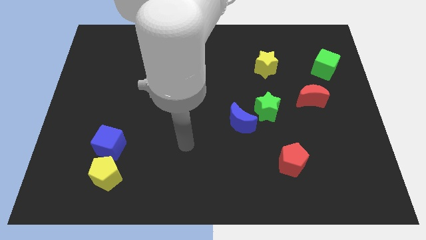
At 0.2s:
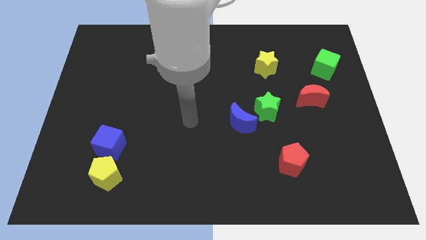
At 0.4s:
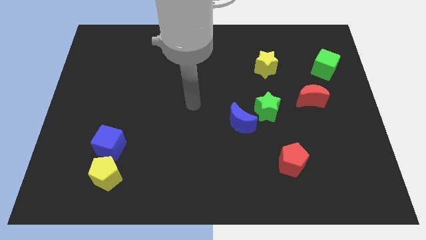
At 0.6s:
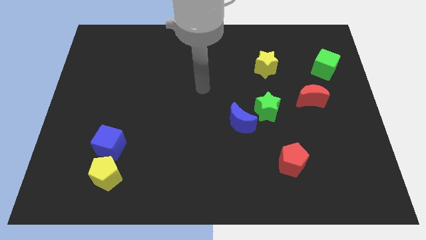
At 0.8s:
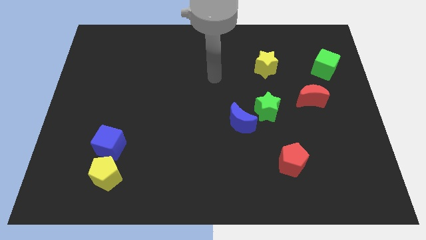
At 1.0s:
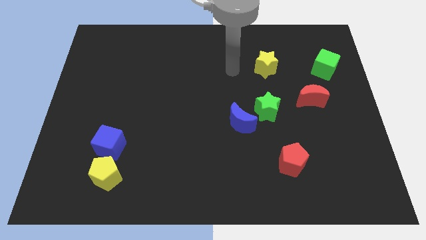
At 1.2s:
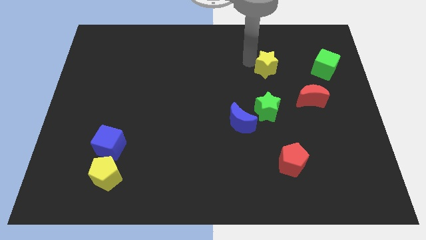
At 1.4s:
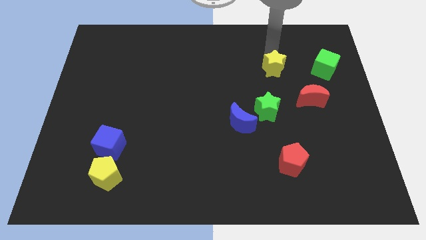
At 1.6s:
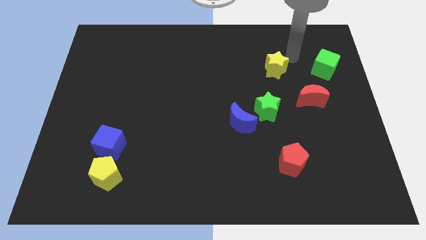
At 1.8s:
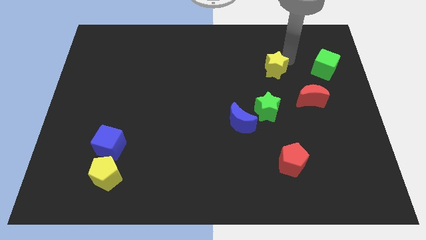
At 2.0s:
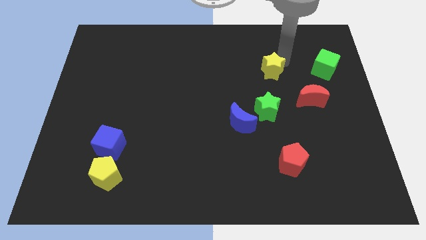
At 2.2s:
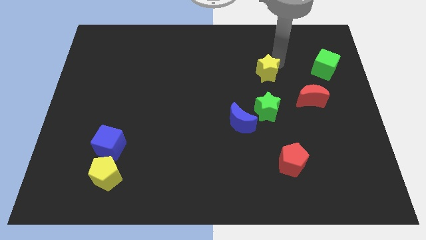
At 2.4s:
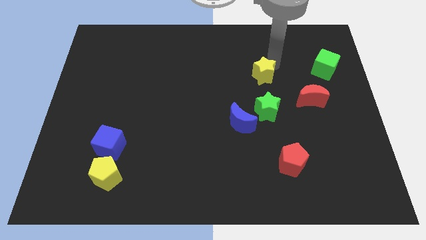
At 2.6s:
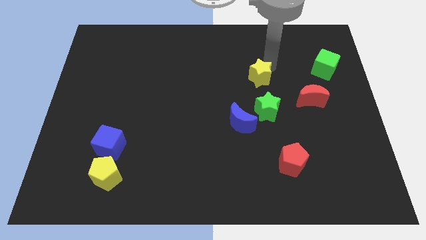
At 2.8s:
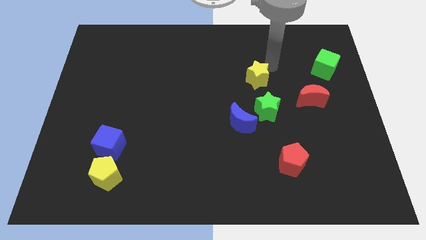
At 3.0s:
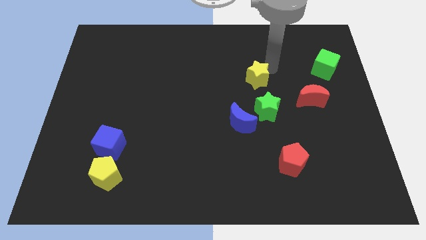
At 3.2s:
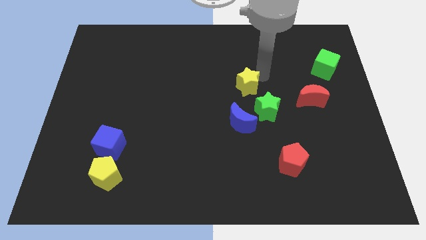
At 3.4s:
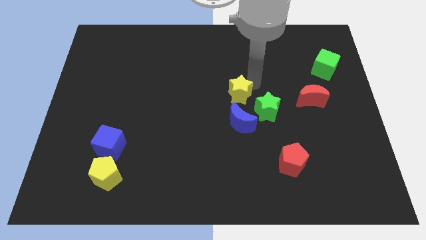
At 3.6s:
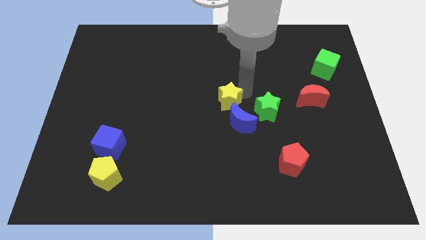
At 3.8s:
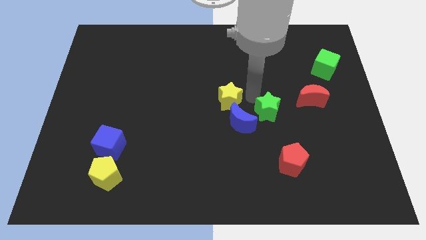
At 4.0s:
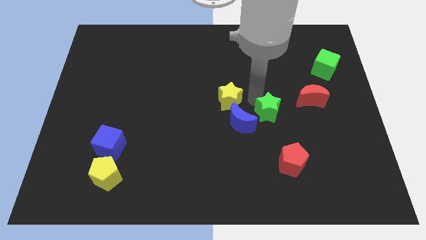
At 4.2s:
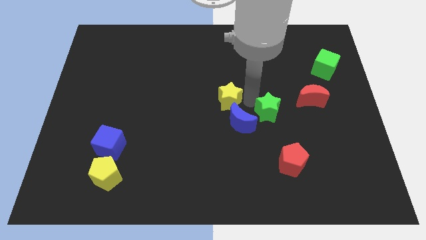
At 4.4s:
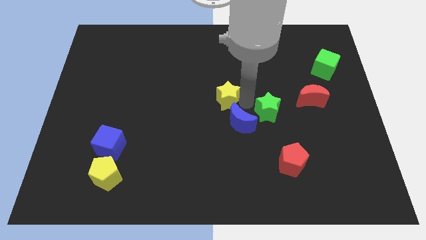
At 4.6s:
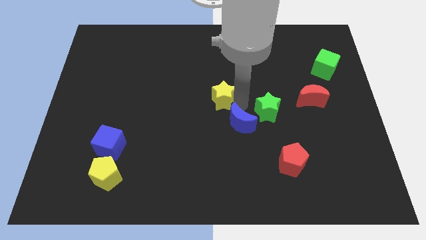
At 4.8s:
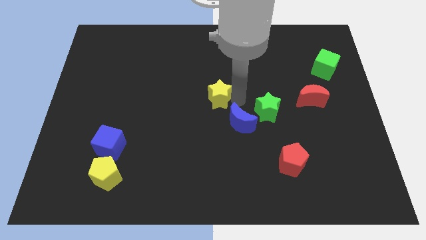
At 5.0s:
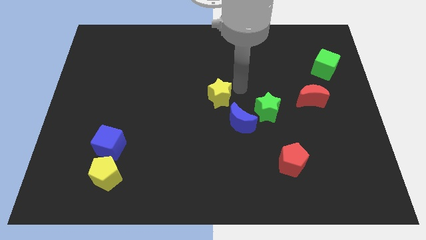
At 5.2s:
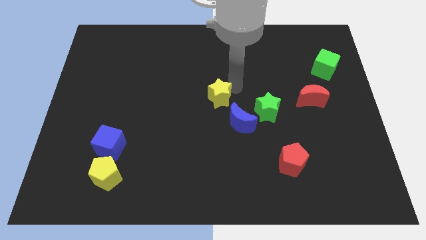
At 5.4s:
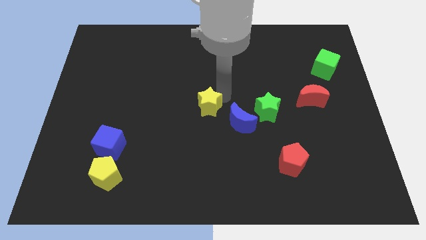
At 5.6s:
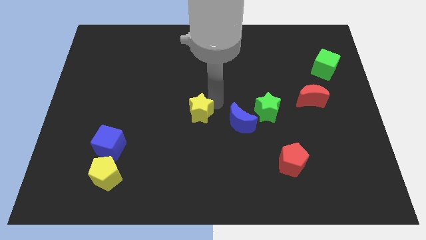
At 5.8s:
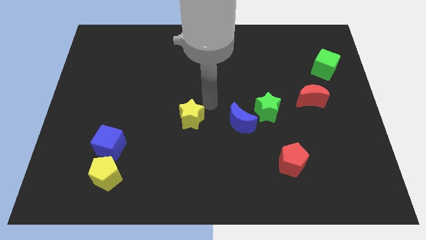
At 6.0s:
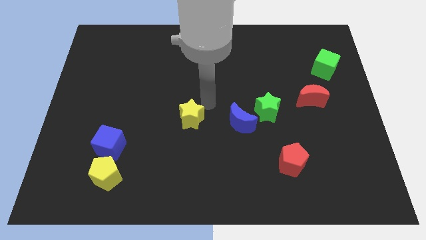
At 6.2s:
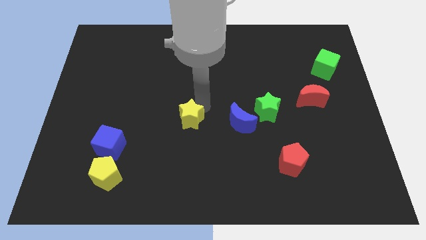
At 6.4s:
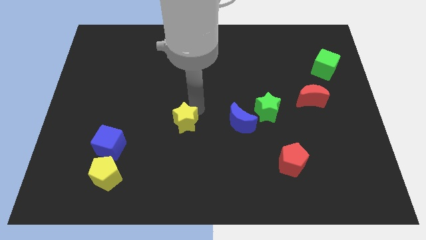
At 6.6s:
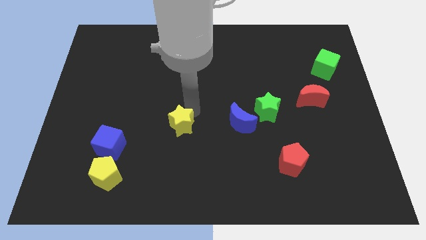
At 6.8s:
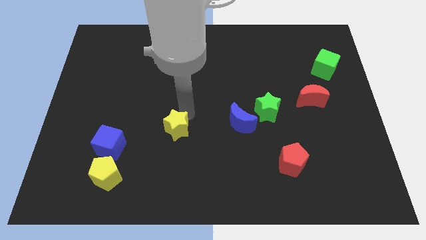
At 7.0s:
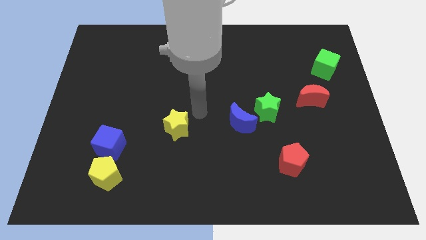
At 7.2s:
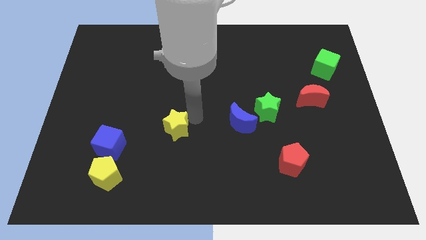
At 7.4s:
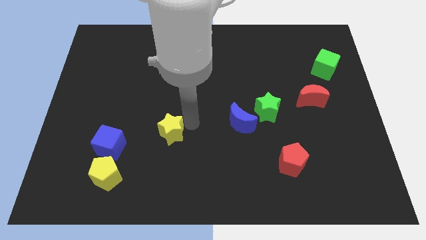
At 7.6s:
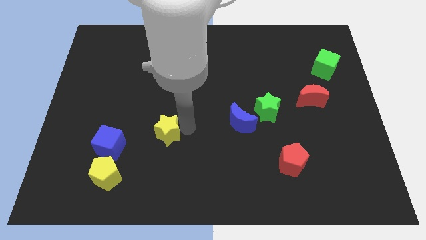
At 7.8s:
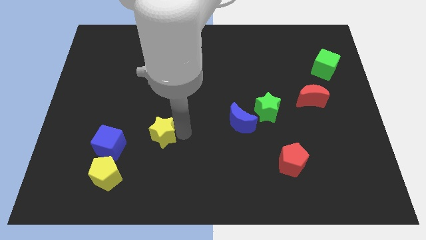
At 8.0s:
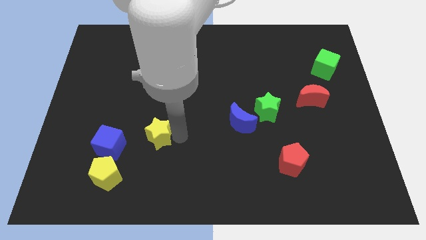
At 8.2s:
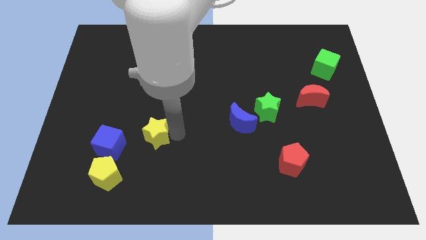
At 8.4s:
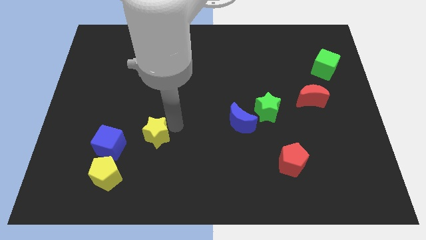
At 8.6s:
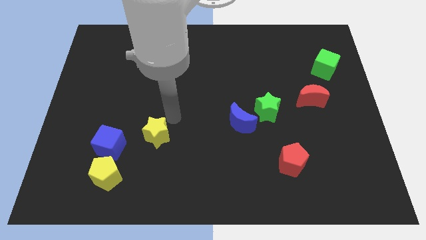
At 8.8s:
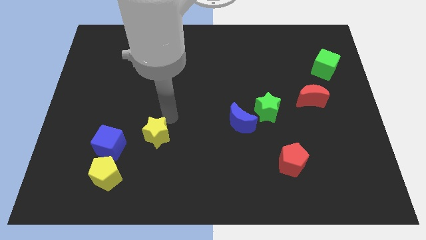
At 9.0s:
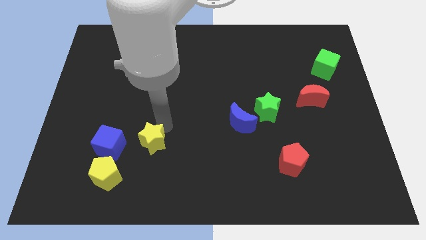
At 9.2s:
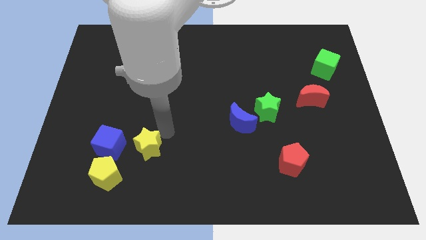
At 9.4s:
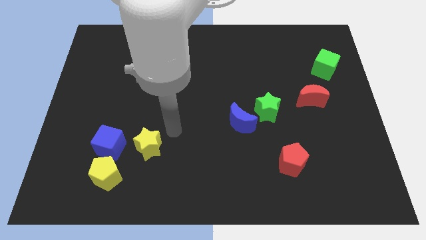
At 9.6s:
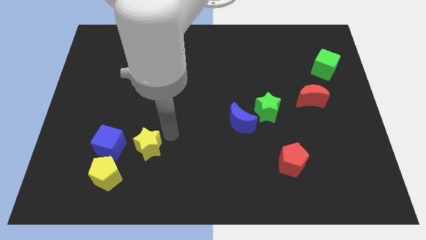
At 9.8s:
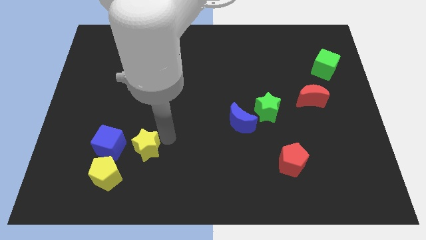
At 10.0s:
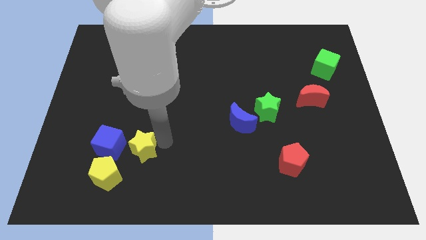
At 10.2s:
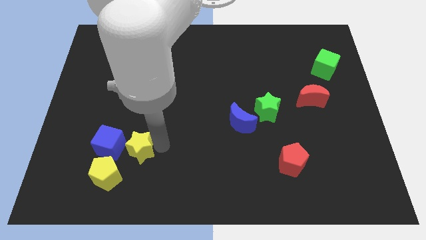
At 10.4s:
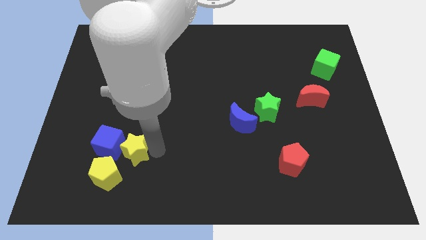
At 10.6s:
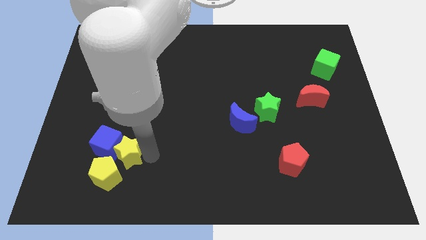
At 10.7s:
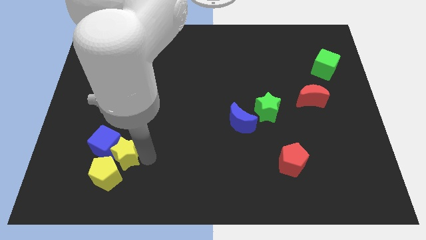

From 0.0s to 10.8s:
slide the yellow star next to the yellow pentagon

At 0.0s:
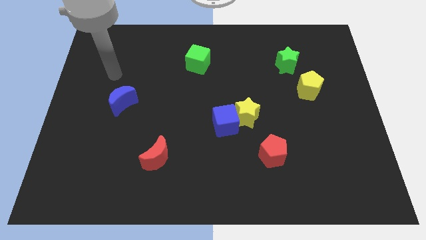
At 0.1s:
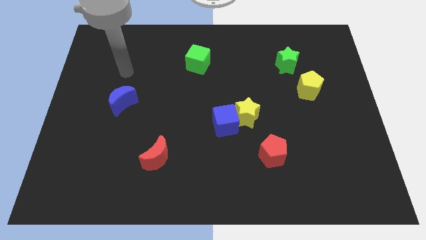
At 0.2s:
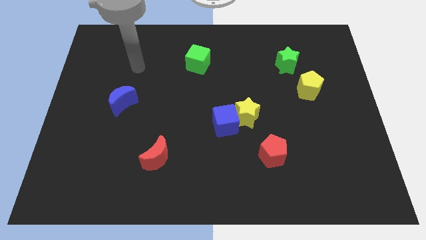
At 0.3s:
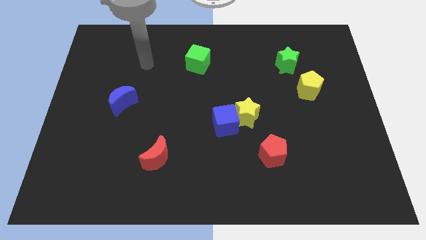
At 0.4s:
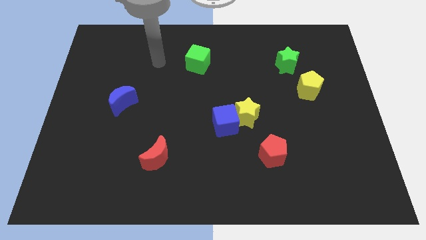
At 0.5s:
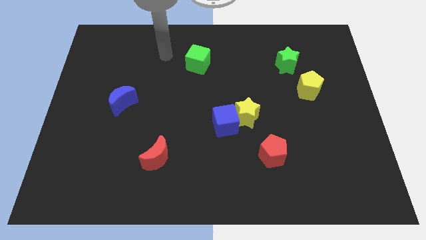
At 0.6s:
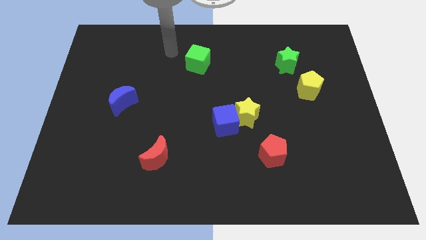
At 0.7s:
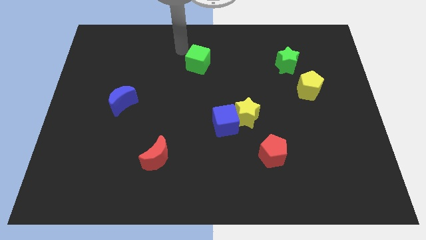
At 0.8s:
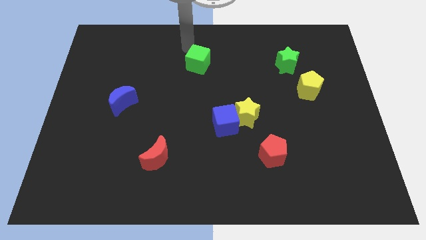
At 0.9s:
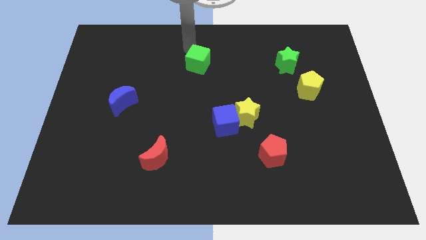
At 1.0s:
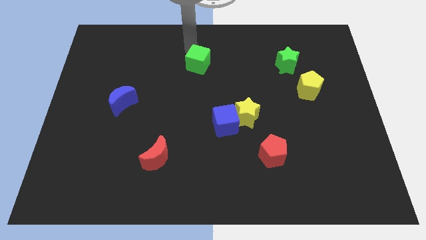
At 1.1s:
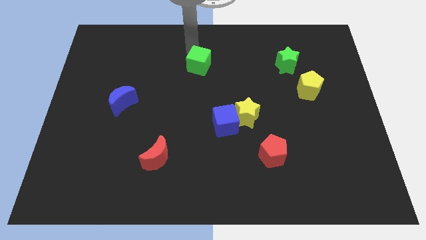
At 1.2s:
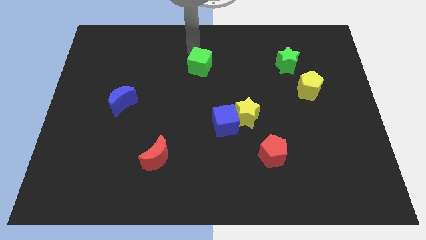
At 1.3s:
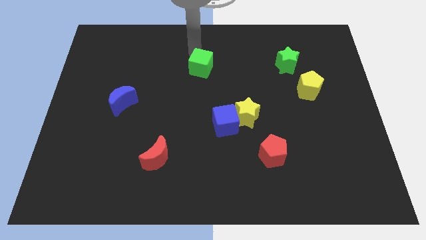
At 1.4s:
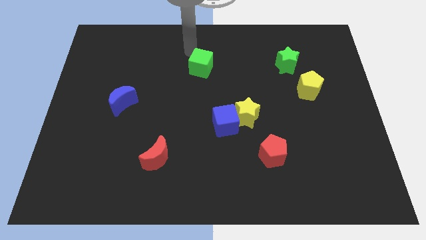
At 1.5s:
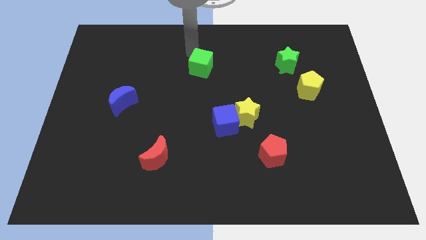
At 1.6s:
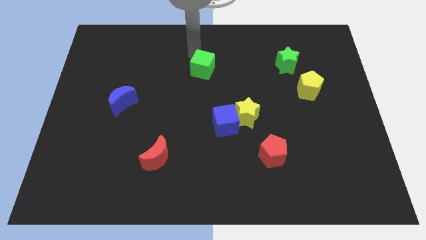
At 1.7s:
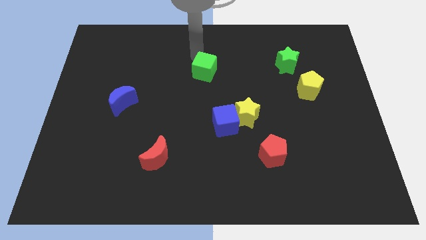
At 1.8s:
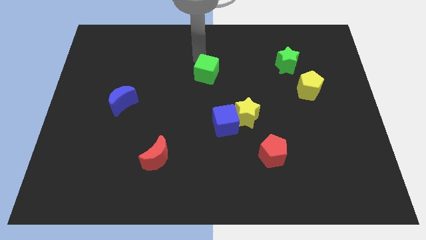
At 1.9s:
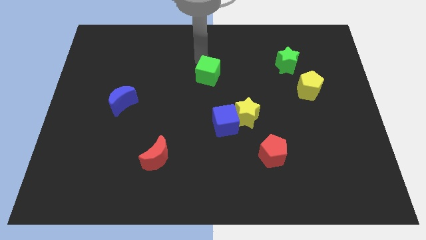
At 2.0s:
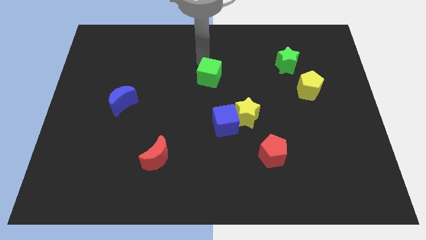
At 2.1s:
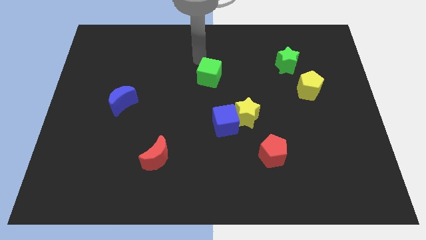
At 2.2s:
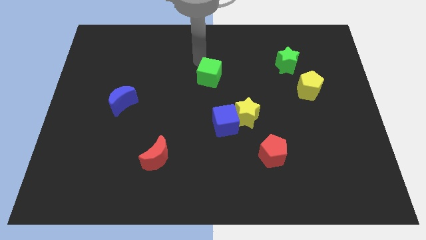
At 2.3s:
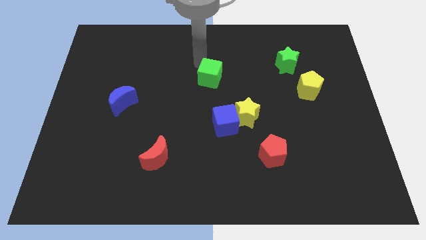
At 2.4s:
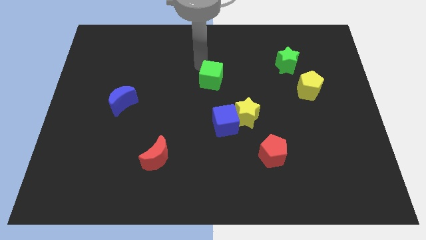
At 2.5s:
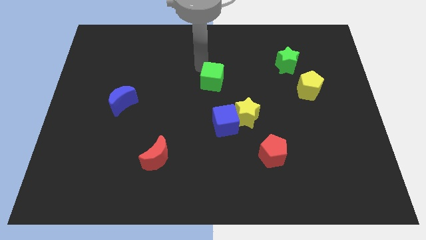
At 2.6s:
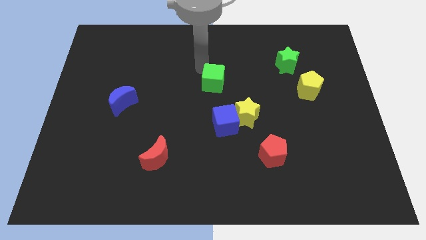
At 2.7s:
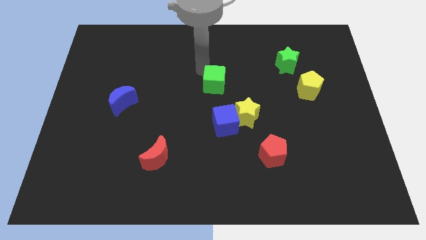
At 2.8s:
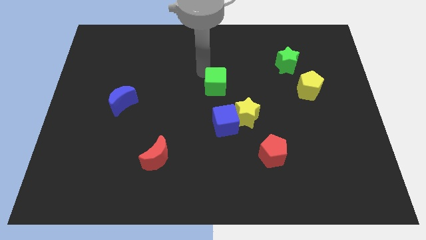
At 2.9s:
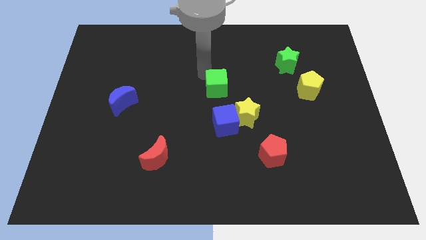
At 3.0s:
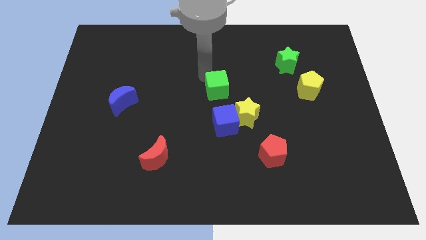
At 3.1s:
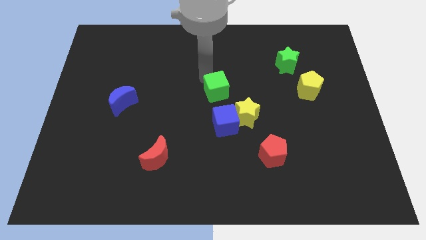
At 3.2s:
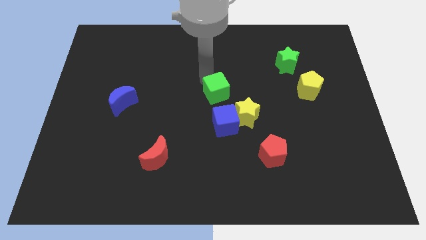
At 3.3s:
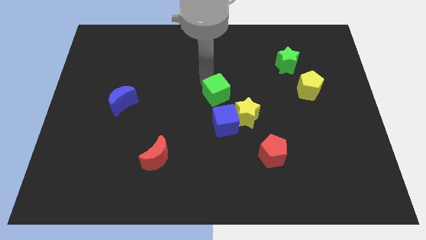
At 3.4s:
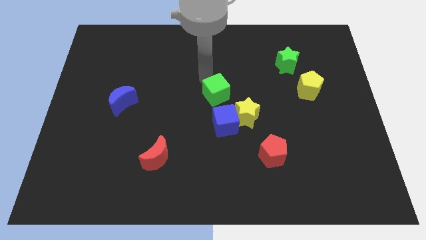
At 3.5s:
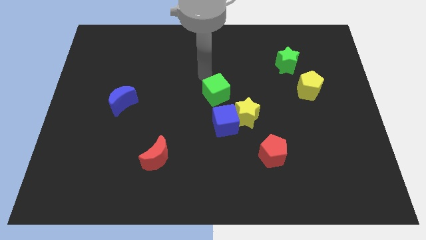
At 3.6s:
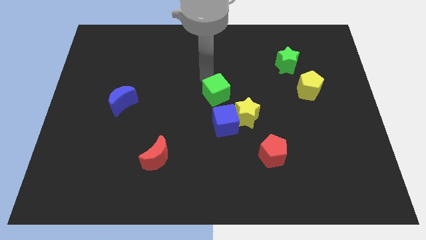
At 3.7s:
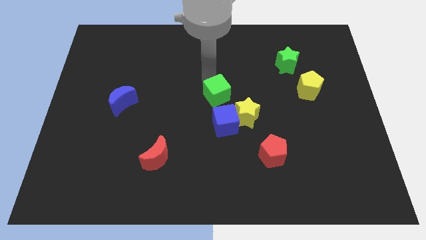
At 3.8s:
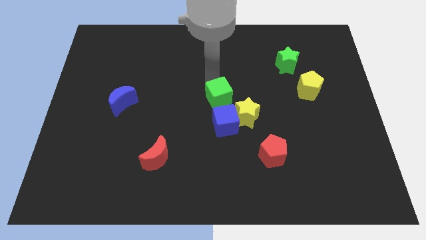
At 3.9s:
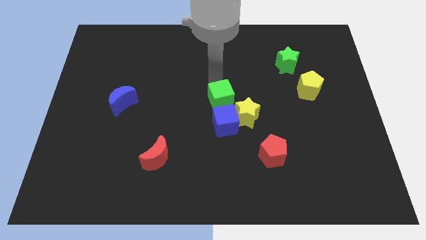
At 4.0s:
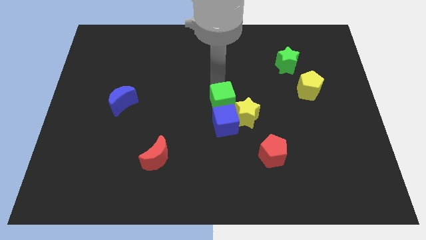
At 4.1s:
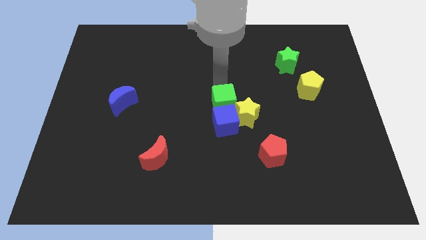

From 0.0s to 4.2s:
move the green cube next to the blue cube
